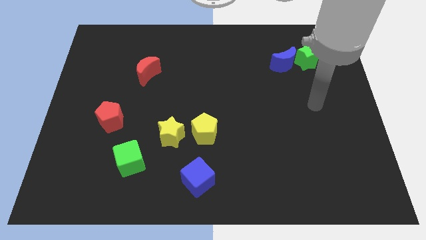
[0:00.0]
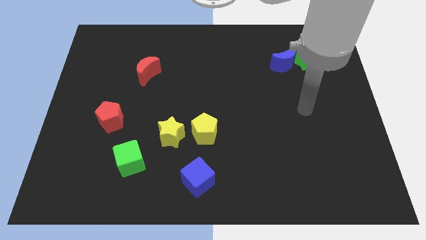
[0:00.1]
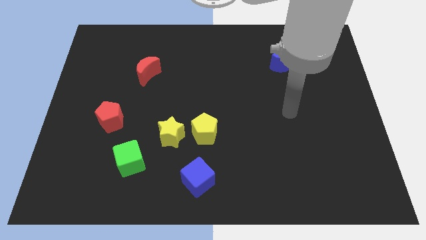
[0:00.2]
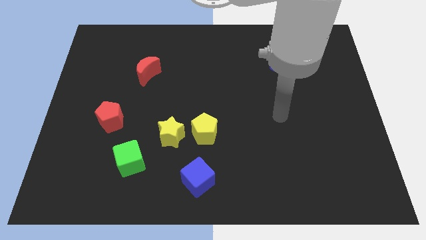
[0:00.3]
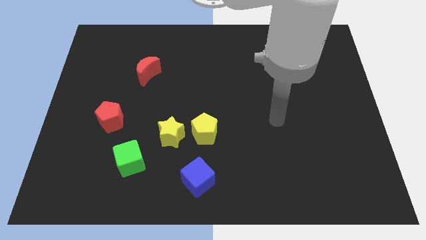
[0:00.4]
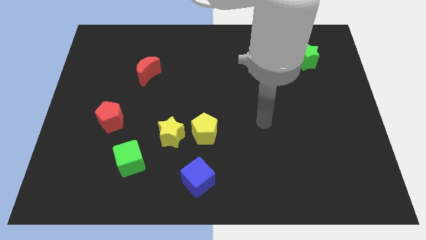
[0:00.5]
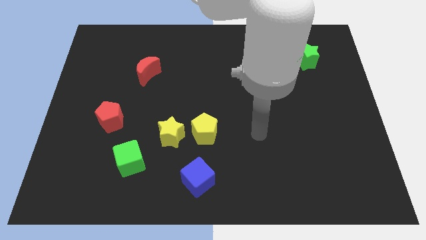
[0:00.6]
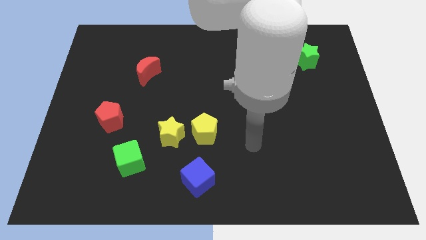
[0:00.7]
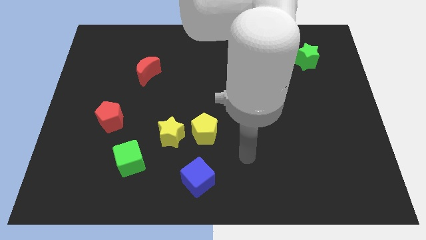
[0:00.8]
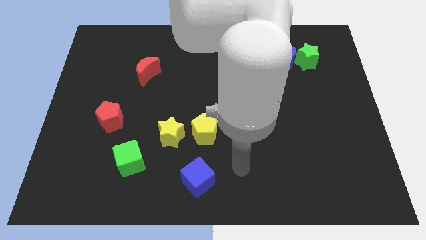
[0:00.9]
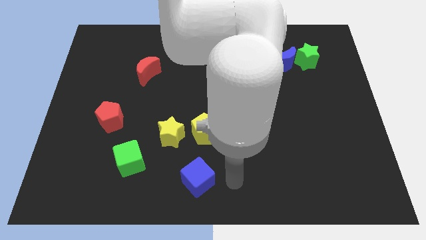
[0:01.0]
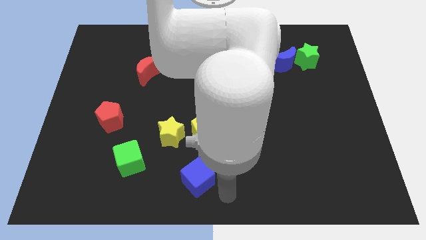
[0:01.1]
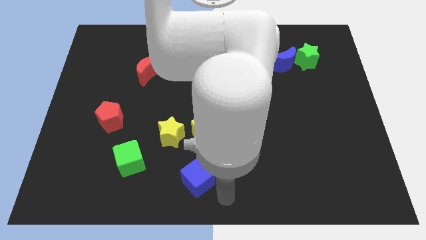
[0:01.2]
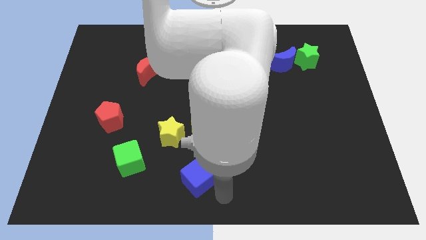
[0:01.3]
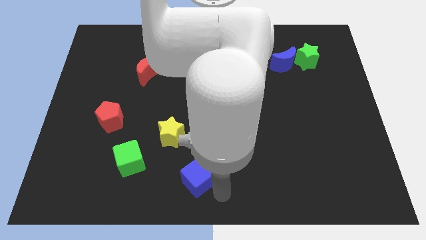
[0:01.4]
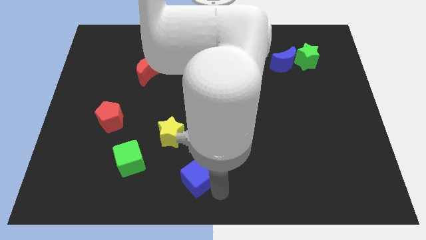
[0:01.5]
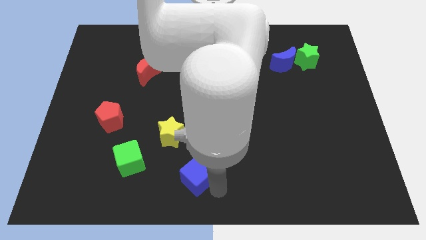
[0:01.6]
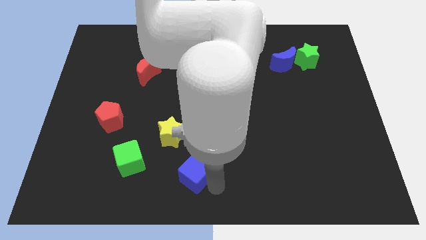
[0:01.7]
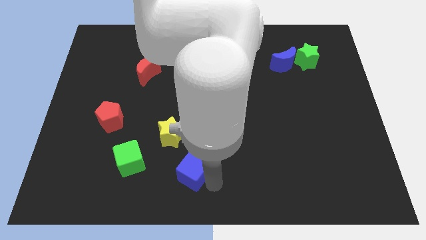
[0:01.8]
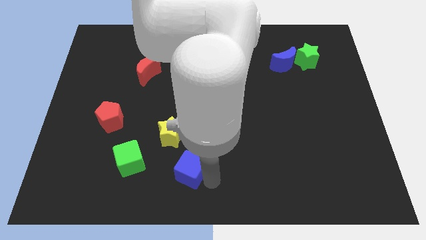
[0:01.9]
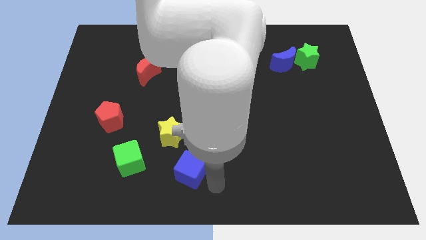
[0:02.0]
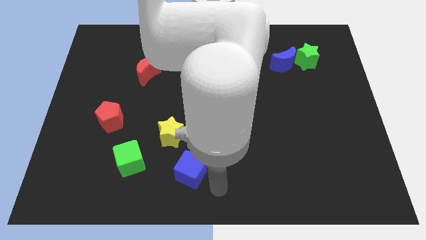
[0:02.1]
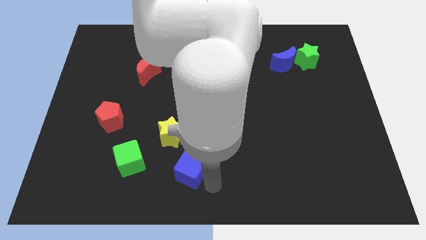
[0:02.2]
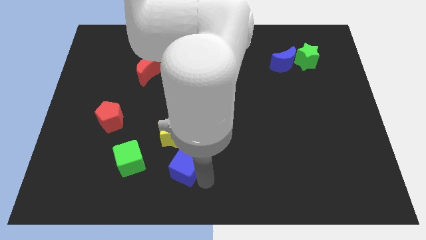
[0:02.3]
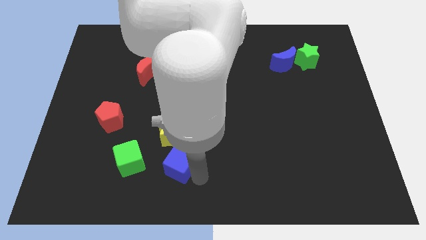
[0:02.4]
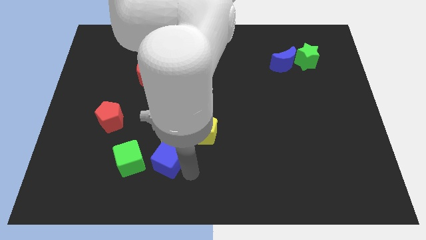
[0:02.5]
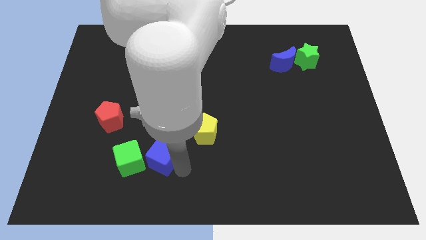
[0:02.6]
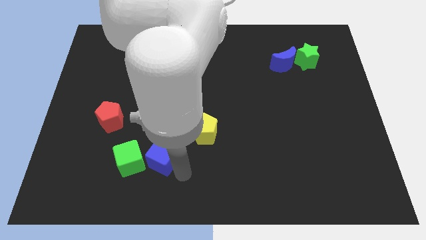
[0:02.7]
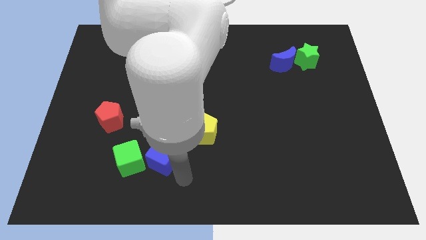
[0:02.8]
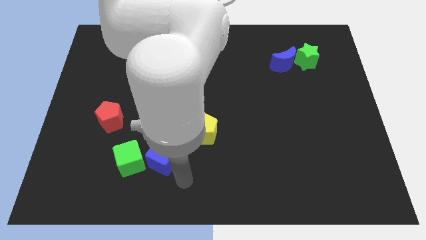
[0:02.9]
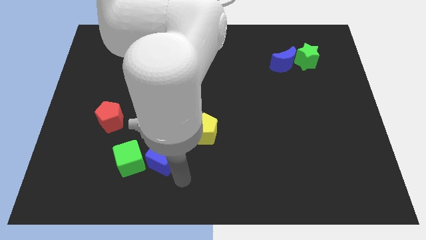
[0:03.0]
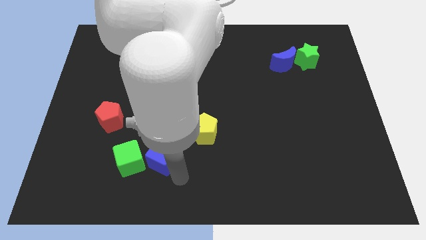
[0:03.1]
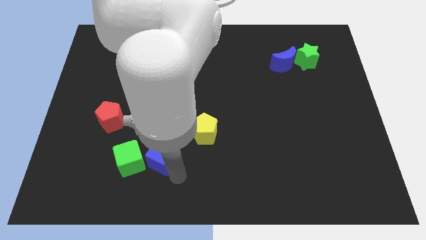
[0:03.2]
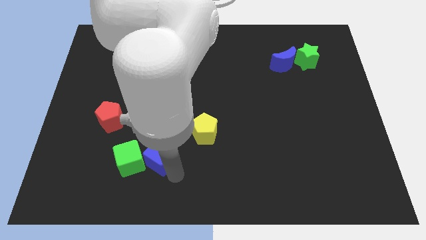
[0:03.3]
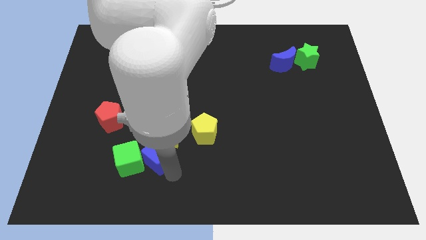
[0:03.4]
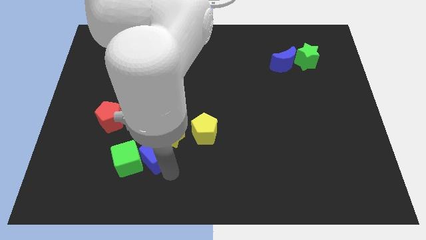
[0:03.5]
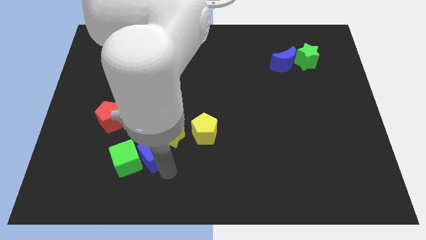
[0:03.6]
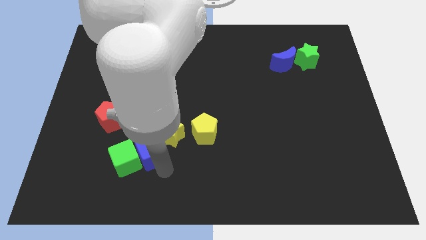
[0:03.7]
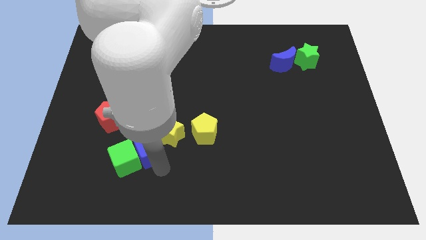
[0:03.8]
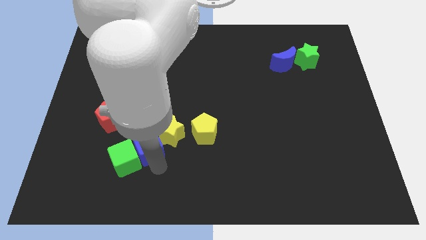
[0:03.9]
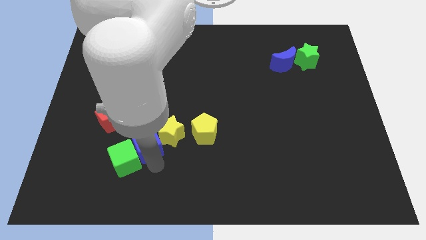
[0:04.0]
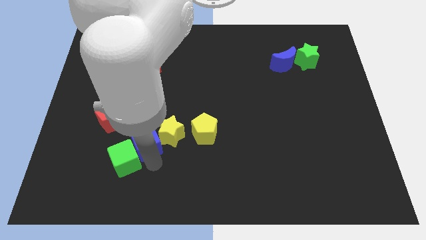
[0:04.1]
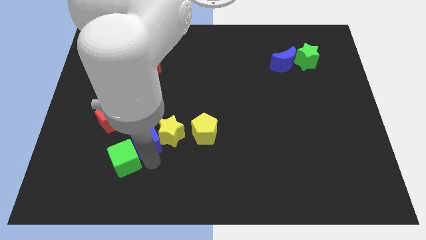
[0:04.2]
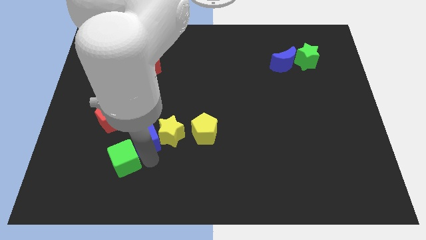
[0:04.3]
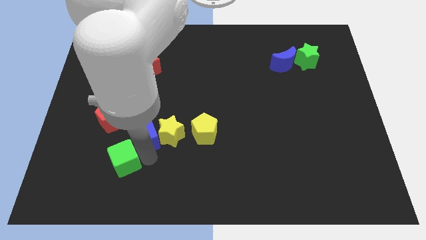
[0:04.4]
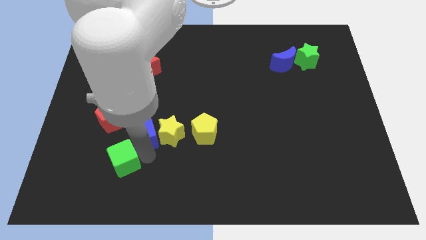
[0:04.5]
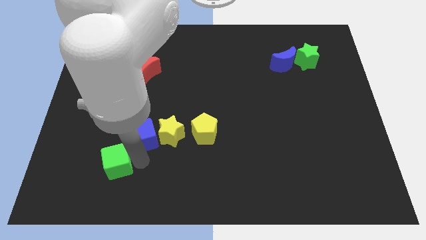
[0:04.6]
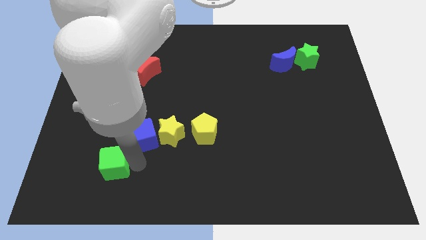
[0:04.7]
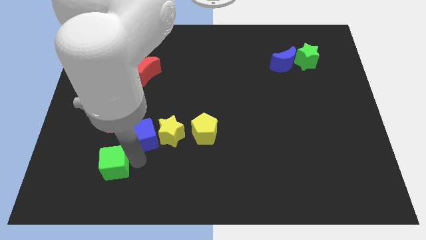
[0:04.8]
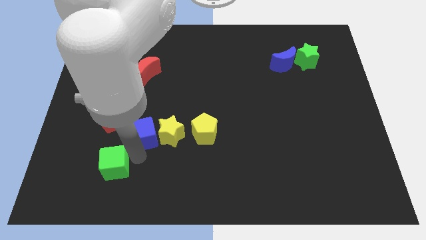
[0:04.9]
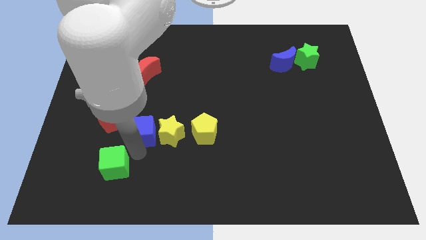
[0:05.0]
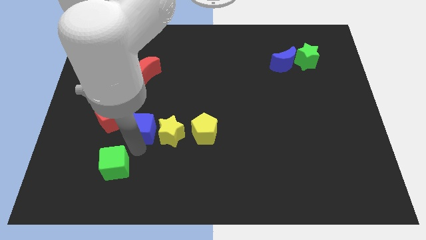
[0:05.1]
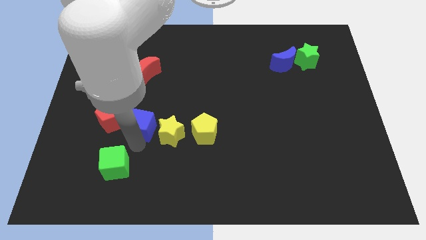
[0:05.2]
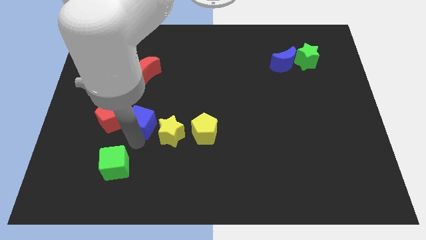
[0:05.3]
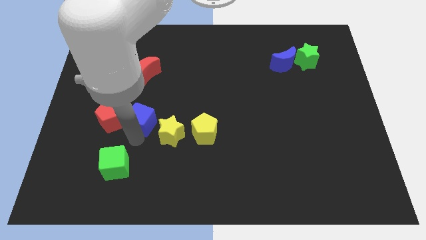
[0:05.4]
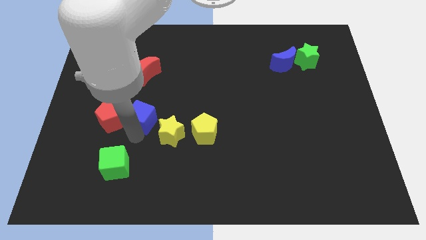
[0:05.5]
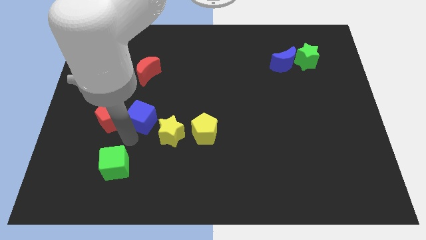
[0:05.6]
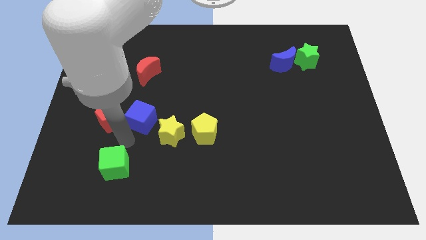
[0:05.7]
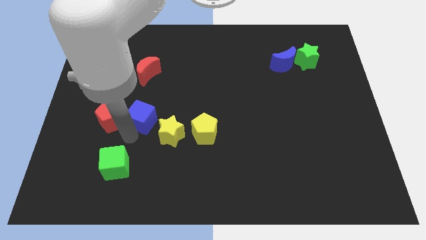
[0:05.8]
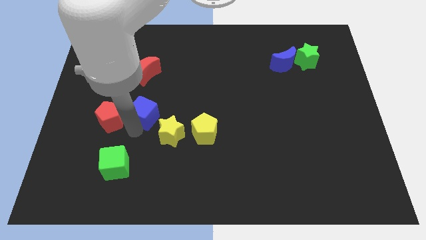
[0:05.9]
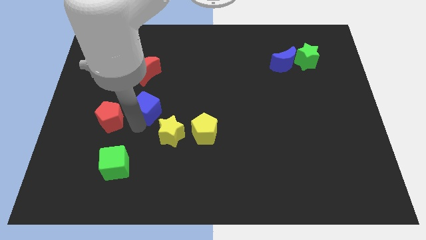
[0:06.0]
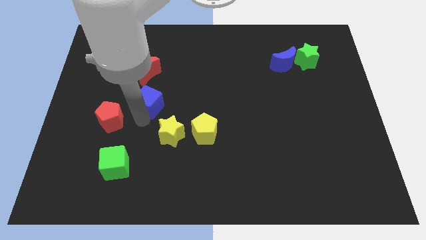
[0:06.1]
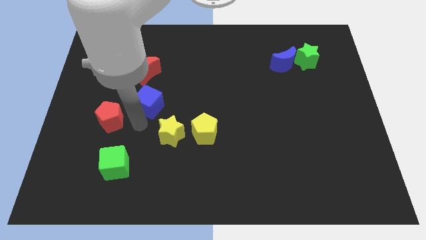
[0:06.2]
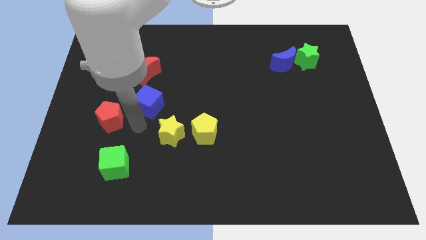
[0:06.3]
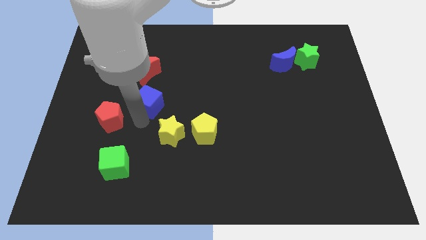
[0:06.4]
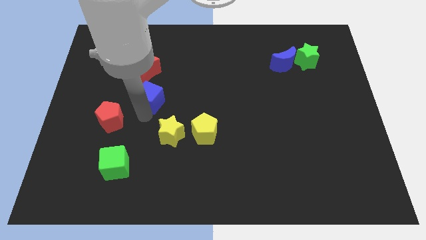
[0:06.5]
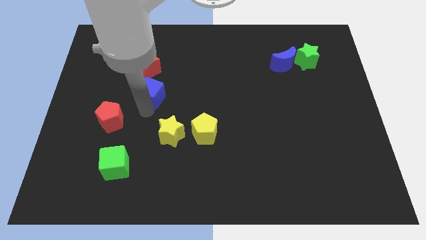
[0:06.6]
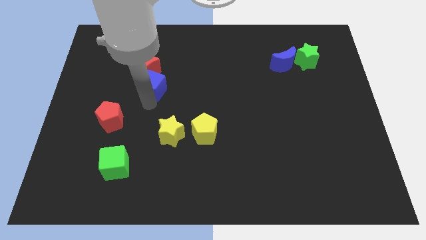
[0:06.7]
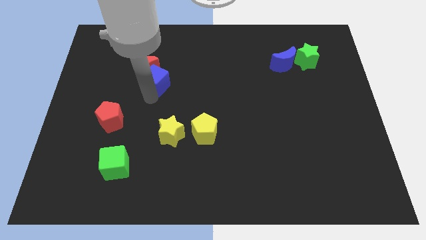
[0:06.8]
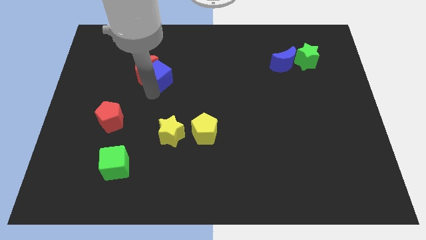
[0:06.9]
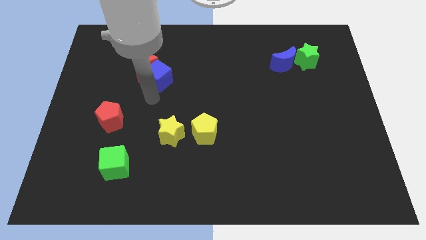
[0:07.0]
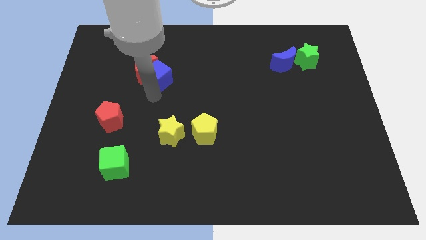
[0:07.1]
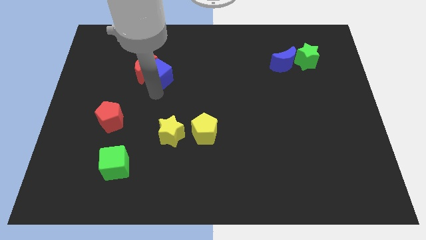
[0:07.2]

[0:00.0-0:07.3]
put the blue cube to the top right of the red moon
